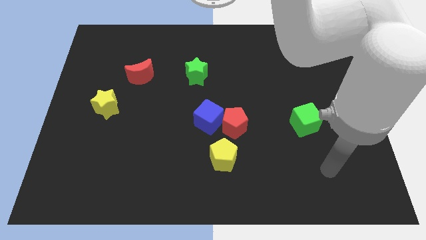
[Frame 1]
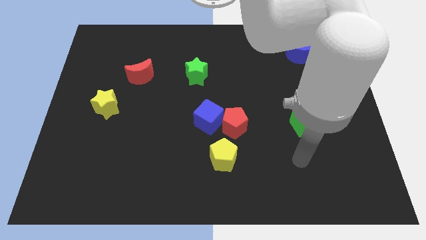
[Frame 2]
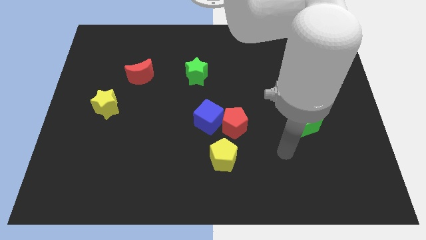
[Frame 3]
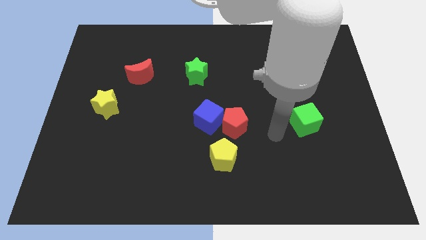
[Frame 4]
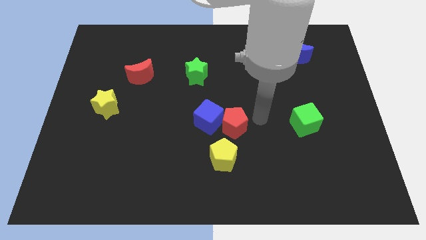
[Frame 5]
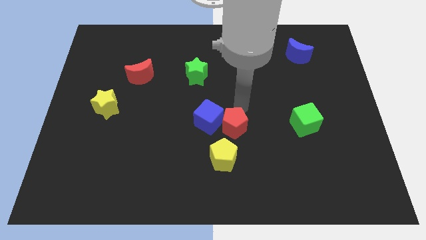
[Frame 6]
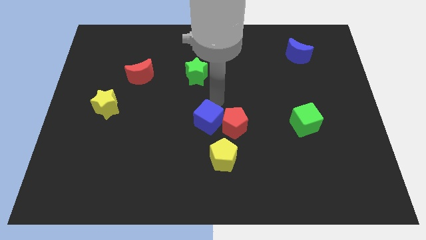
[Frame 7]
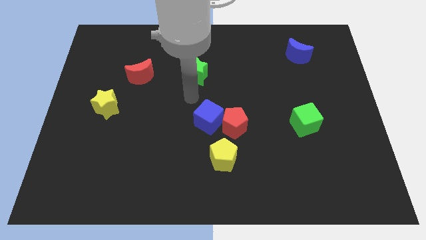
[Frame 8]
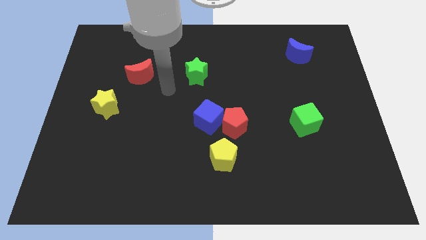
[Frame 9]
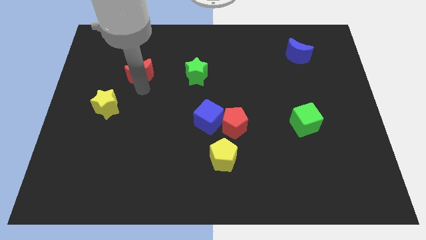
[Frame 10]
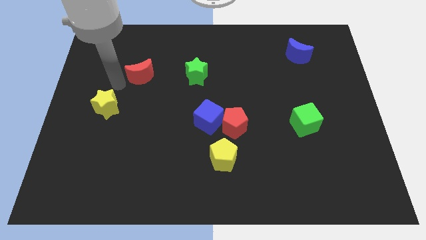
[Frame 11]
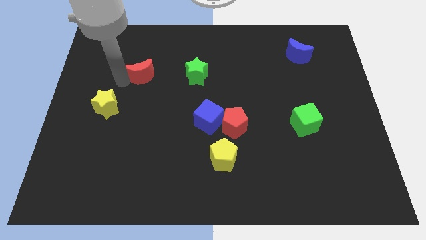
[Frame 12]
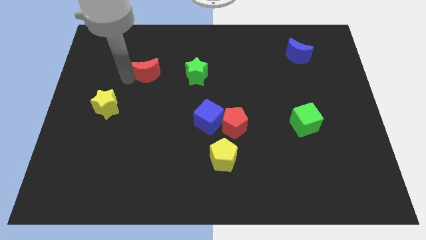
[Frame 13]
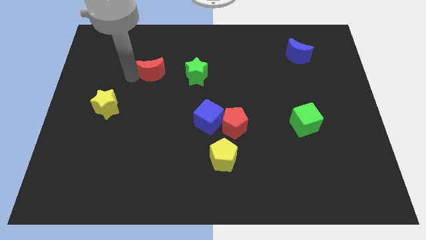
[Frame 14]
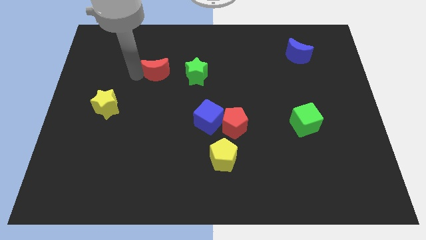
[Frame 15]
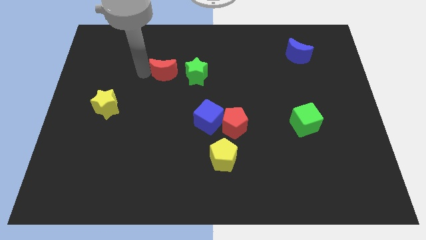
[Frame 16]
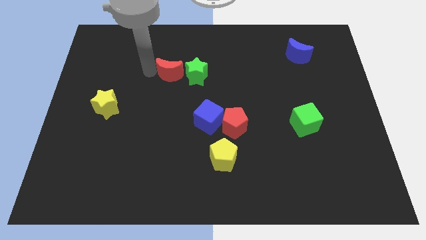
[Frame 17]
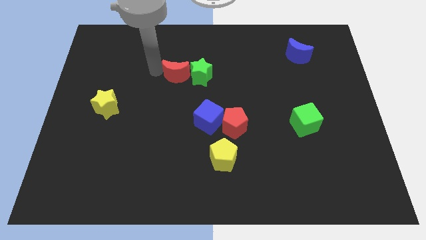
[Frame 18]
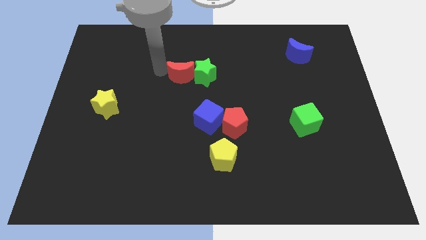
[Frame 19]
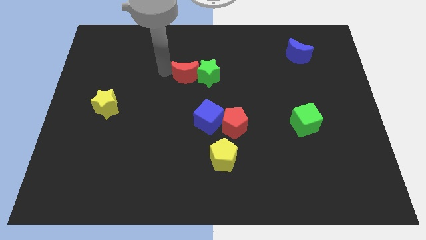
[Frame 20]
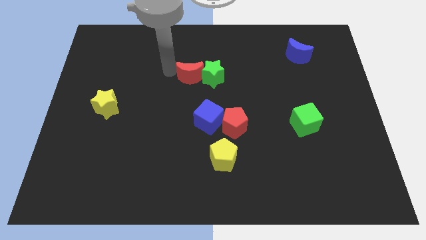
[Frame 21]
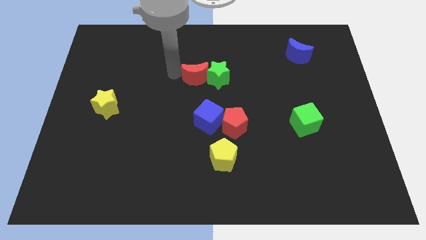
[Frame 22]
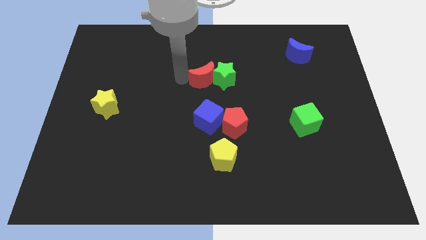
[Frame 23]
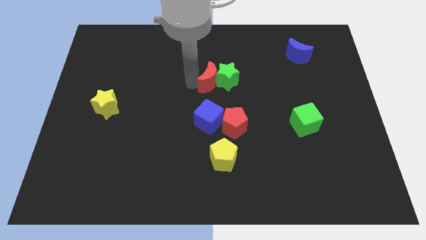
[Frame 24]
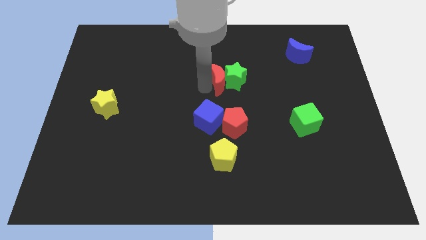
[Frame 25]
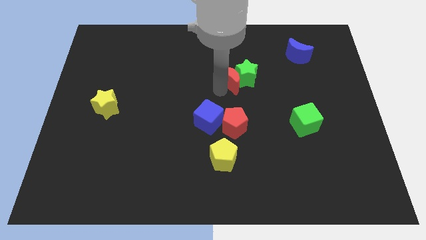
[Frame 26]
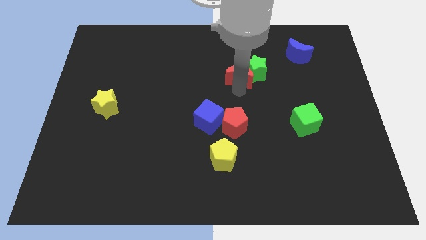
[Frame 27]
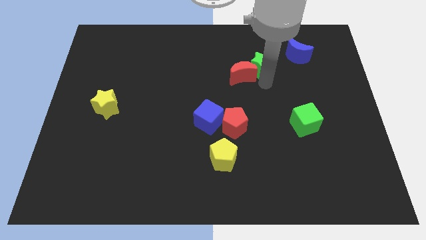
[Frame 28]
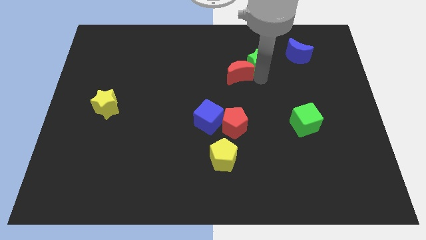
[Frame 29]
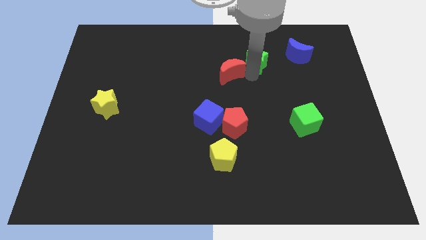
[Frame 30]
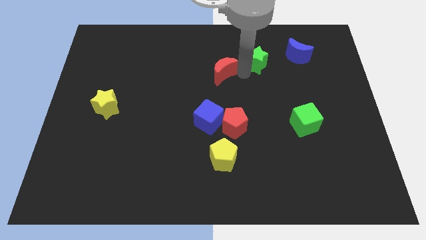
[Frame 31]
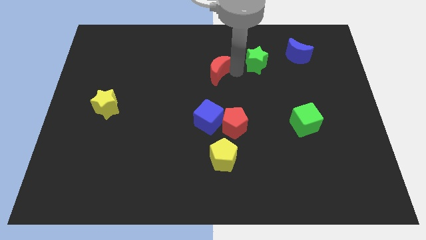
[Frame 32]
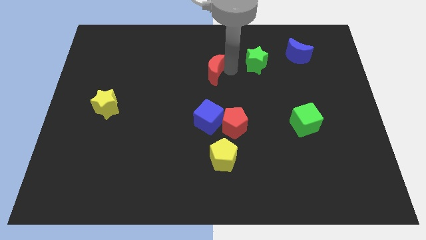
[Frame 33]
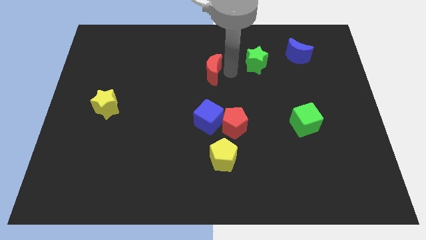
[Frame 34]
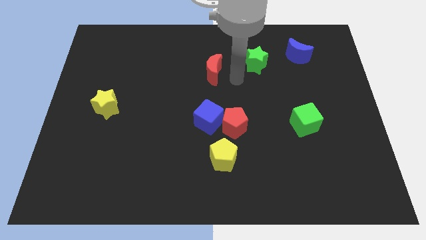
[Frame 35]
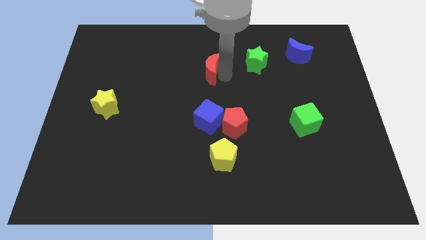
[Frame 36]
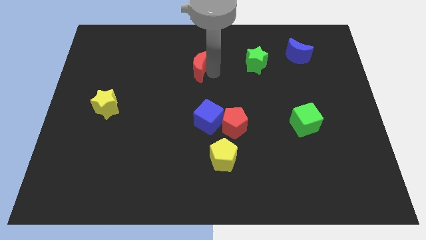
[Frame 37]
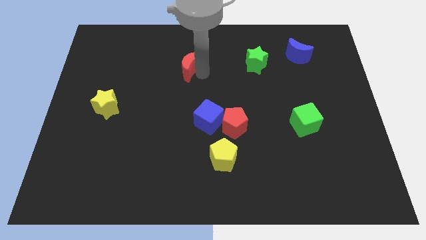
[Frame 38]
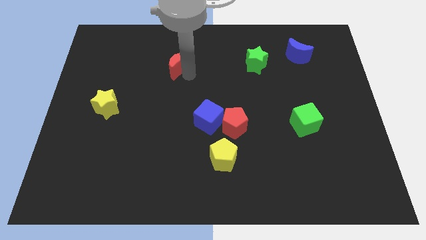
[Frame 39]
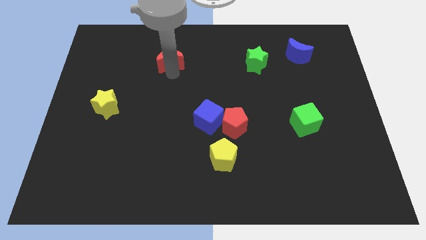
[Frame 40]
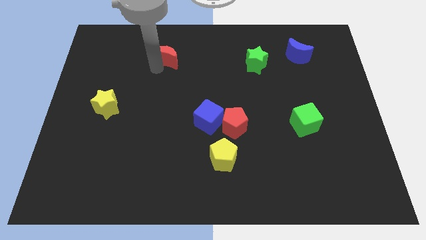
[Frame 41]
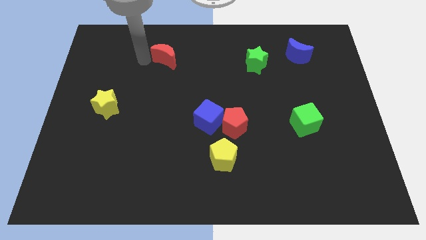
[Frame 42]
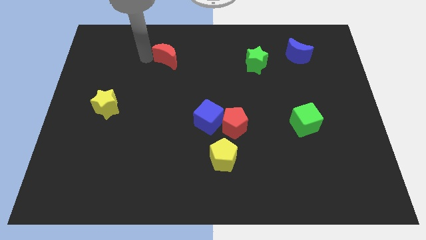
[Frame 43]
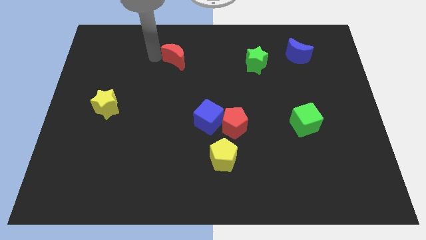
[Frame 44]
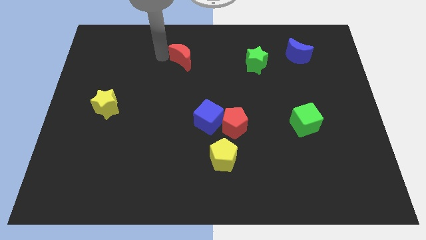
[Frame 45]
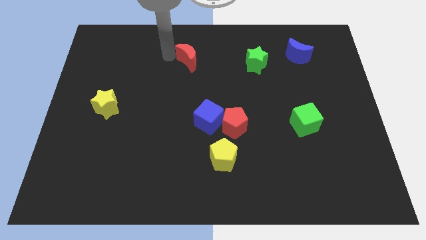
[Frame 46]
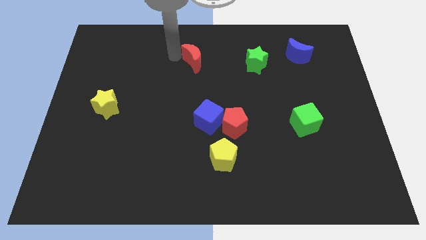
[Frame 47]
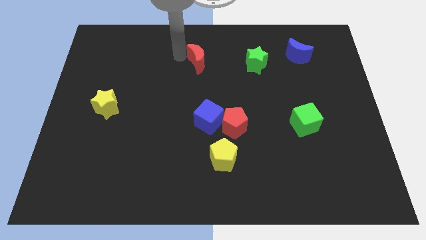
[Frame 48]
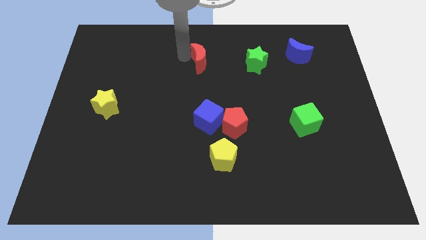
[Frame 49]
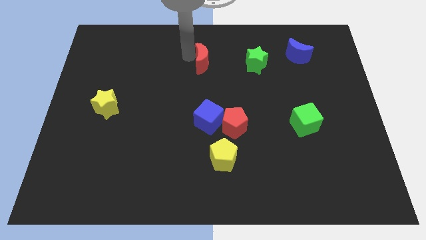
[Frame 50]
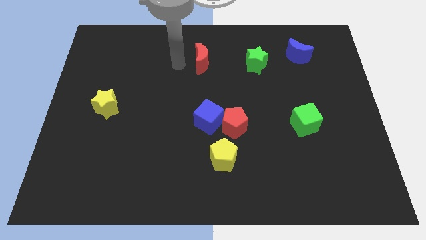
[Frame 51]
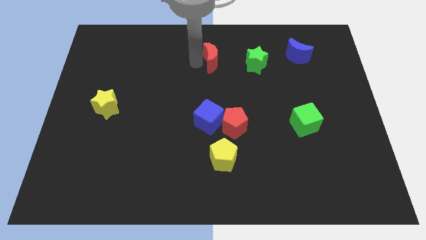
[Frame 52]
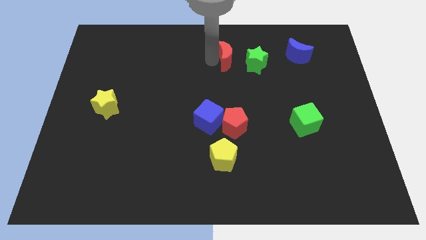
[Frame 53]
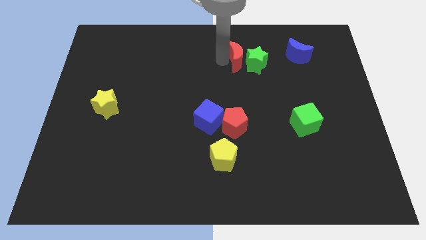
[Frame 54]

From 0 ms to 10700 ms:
move the red moon left of the blue moon
